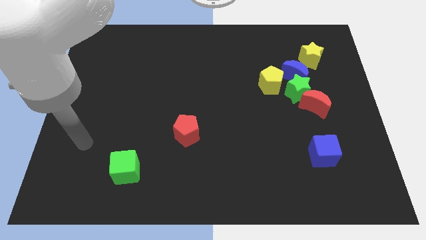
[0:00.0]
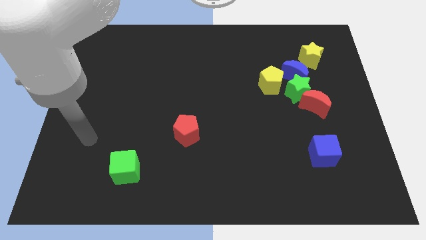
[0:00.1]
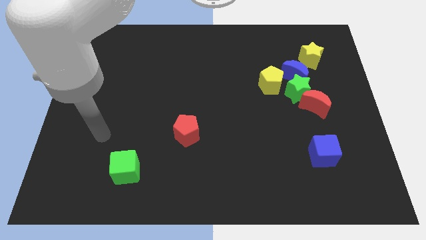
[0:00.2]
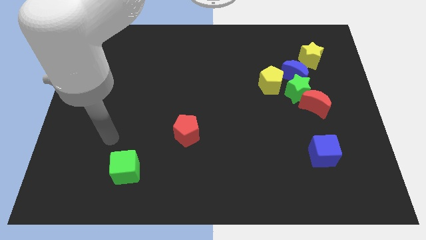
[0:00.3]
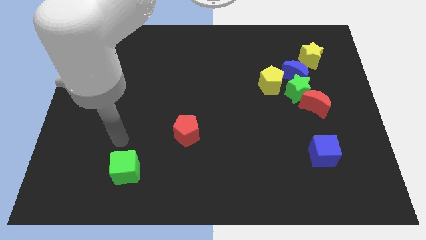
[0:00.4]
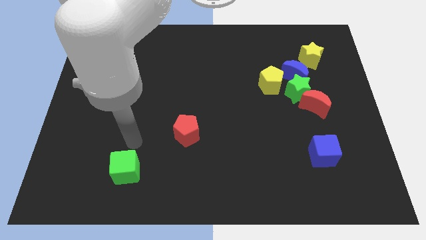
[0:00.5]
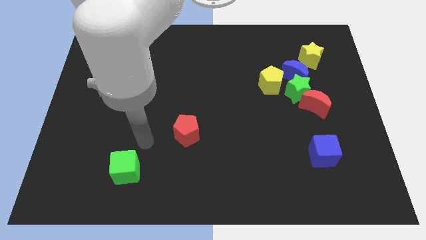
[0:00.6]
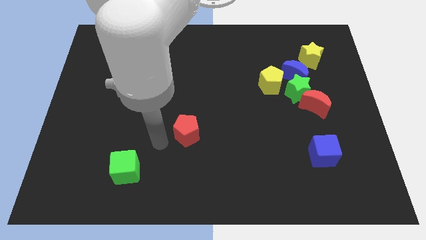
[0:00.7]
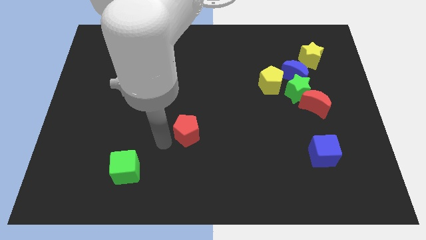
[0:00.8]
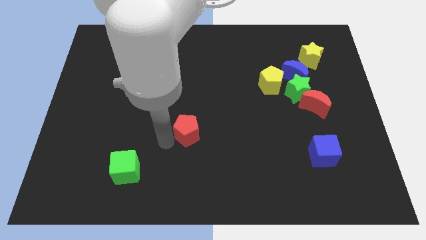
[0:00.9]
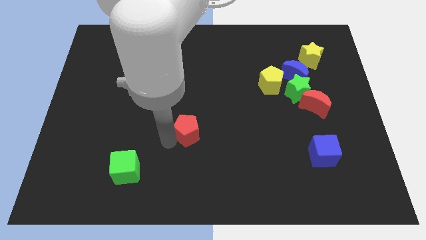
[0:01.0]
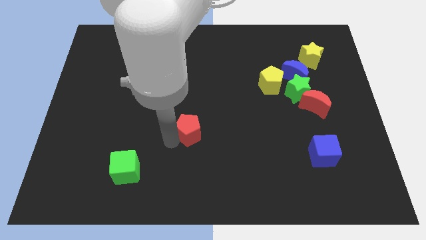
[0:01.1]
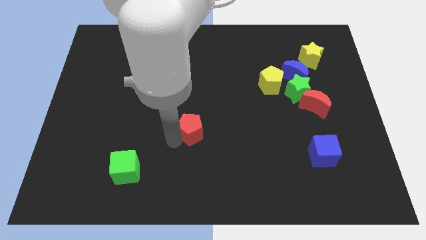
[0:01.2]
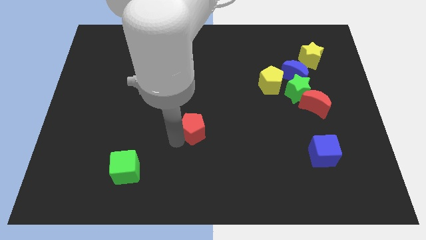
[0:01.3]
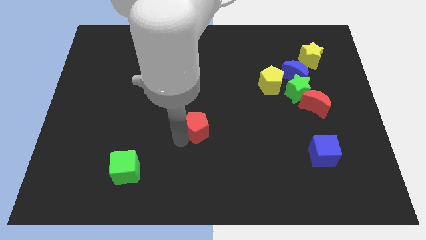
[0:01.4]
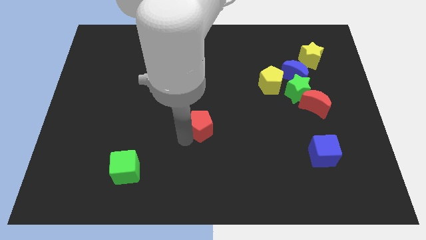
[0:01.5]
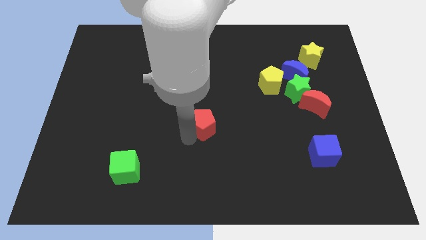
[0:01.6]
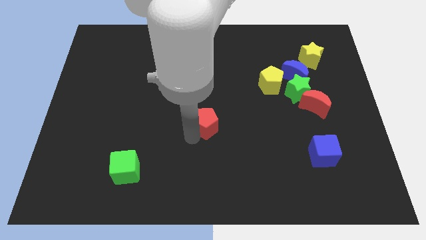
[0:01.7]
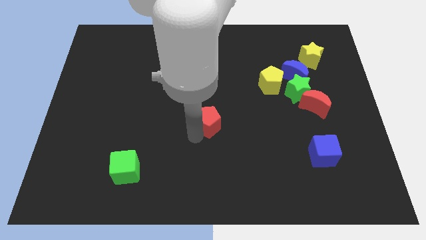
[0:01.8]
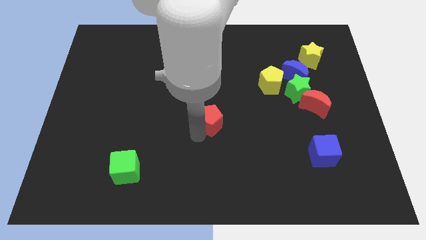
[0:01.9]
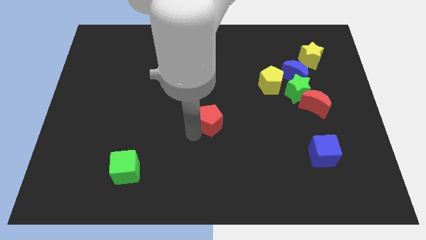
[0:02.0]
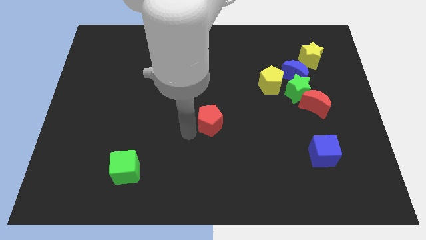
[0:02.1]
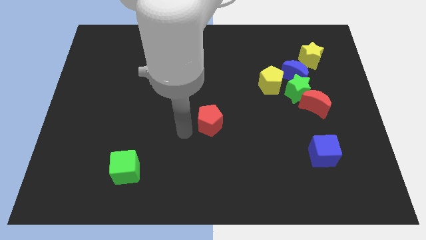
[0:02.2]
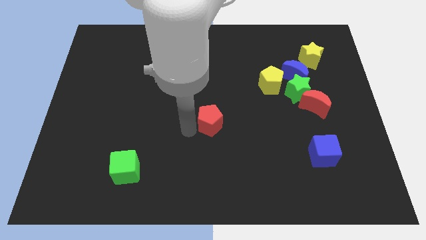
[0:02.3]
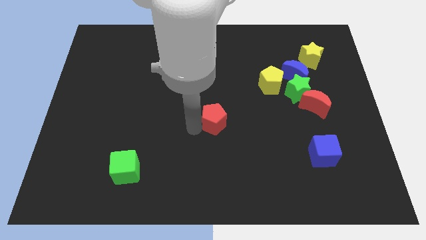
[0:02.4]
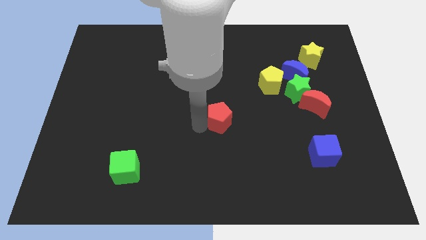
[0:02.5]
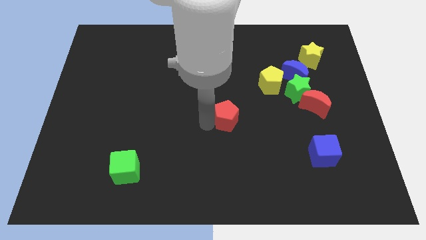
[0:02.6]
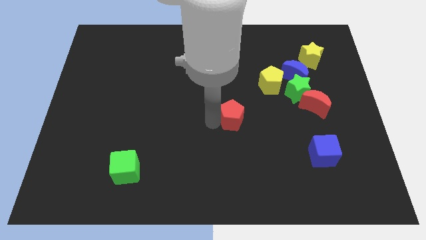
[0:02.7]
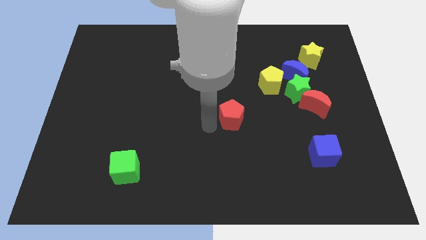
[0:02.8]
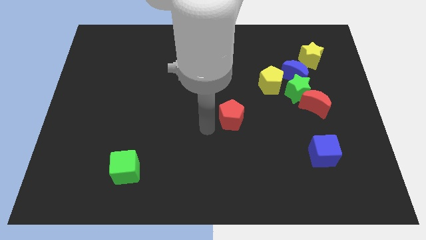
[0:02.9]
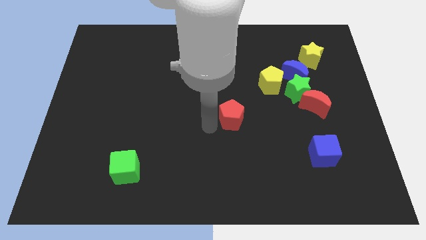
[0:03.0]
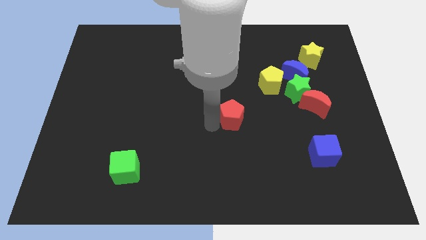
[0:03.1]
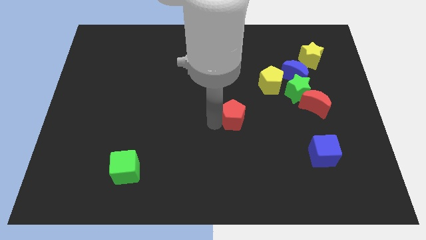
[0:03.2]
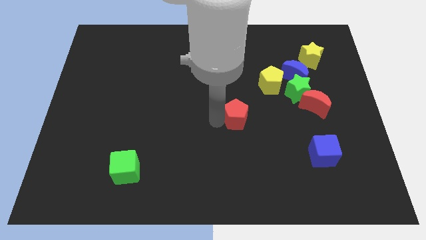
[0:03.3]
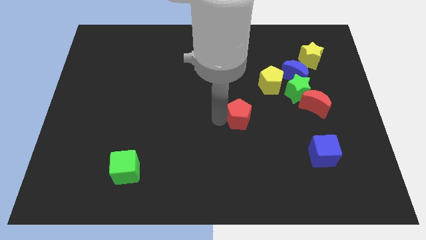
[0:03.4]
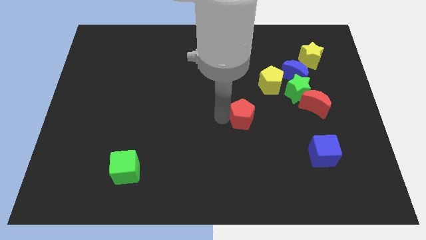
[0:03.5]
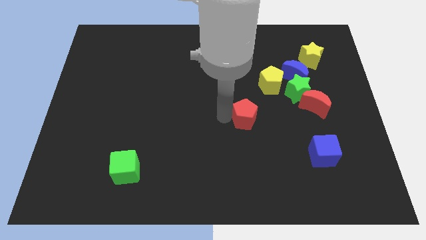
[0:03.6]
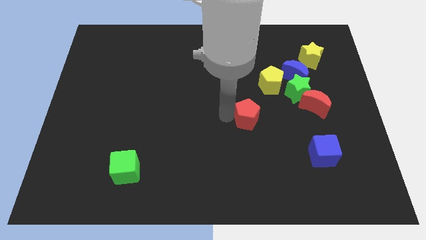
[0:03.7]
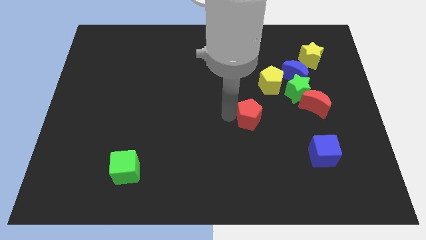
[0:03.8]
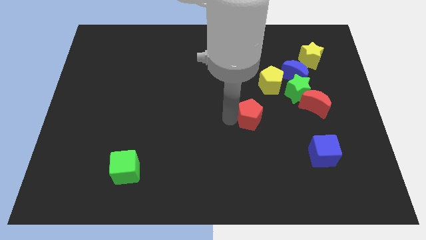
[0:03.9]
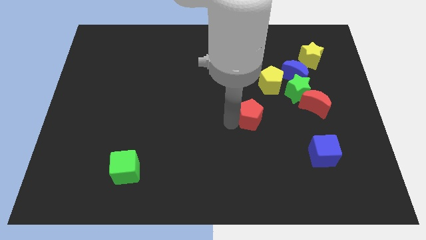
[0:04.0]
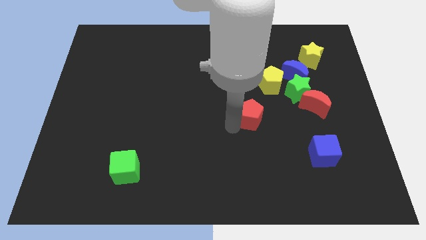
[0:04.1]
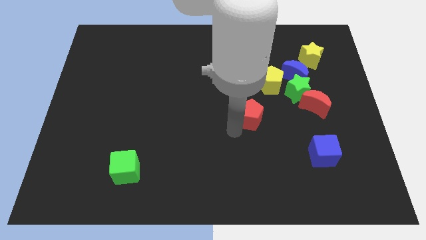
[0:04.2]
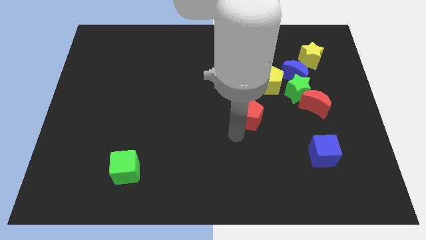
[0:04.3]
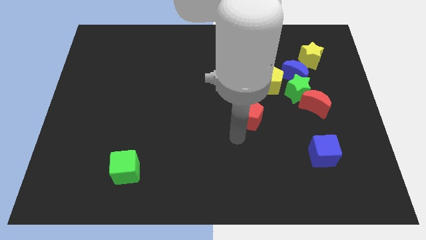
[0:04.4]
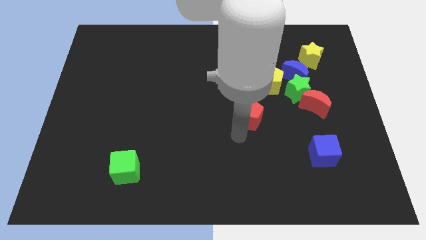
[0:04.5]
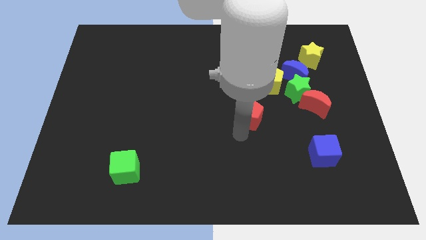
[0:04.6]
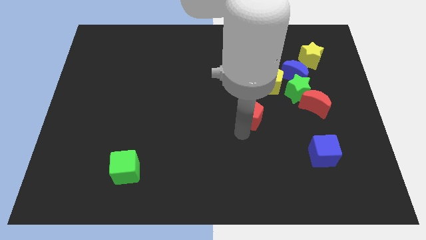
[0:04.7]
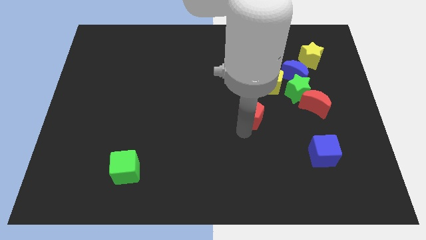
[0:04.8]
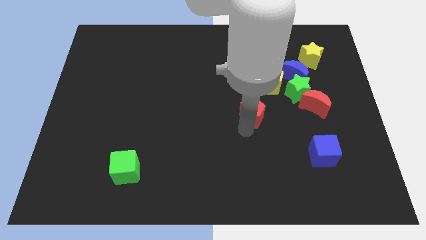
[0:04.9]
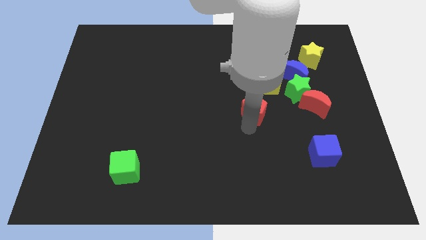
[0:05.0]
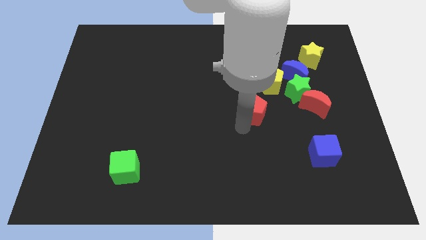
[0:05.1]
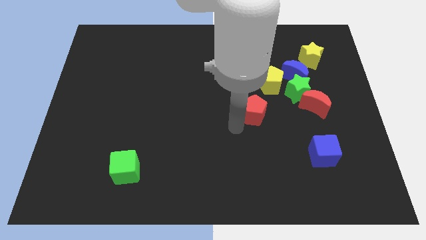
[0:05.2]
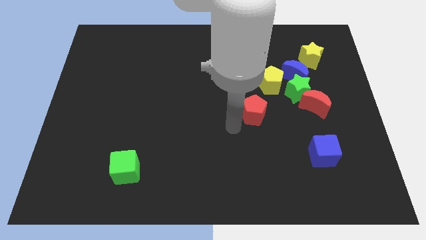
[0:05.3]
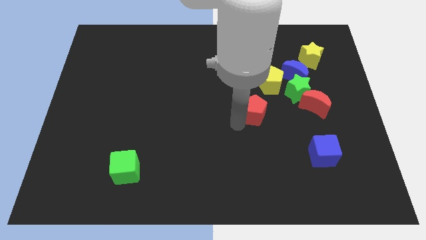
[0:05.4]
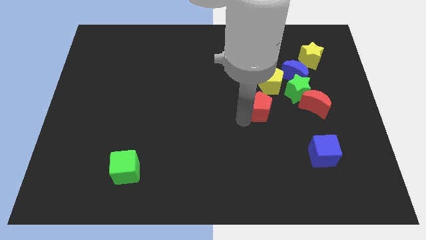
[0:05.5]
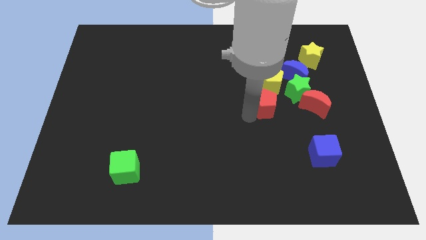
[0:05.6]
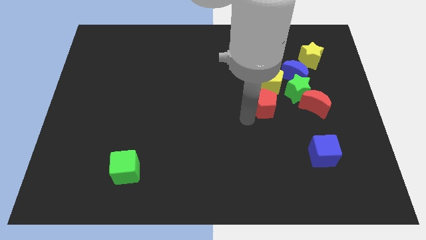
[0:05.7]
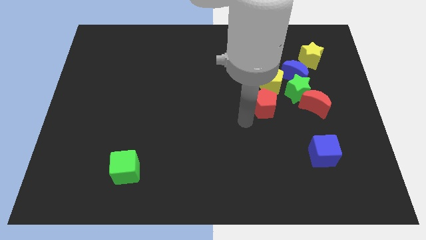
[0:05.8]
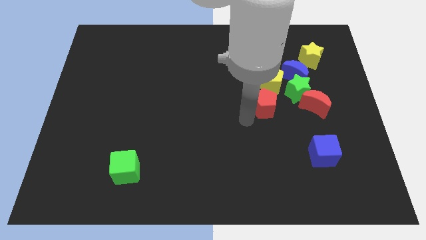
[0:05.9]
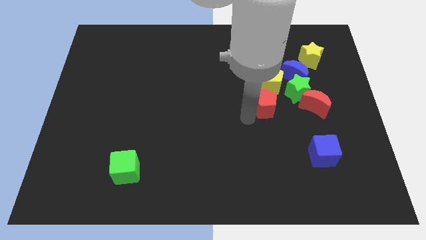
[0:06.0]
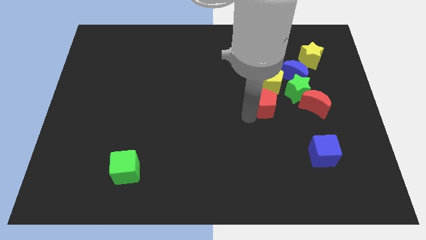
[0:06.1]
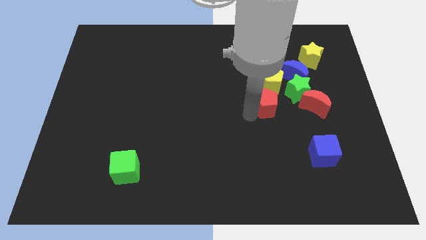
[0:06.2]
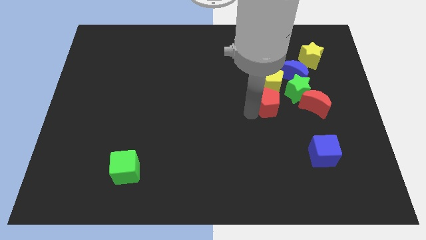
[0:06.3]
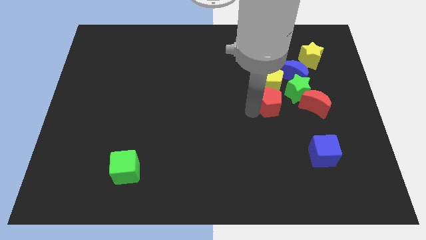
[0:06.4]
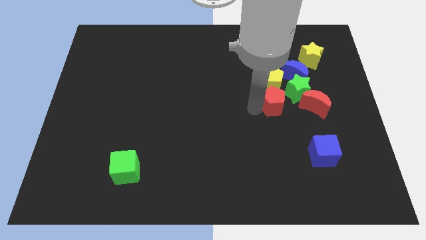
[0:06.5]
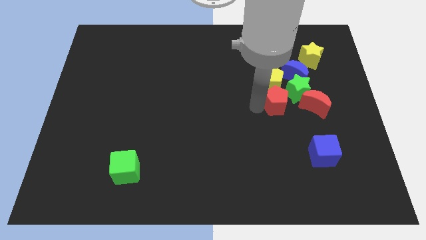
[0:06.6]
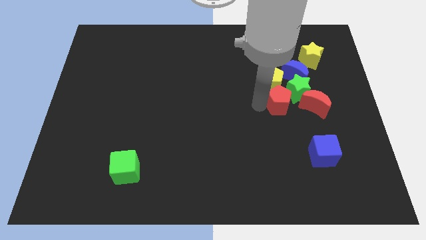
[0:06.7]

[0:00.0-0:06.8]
move the red pentagon next to the green star

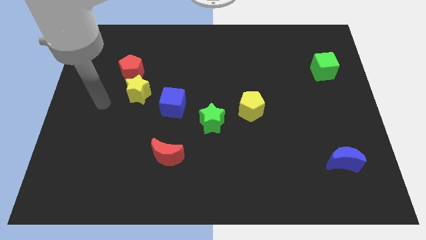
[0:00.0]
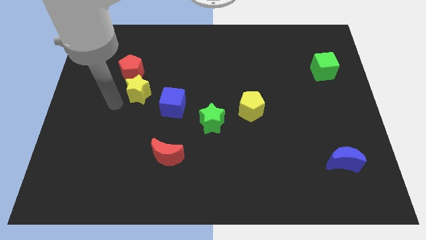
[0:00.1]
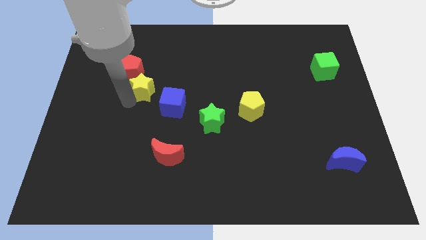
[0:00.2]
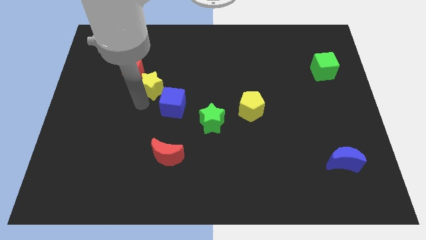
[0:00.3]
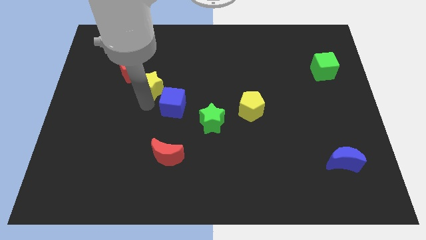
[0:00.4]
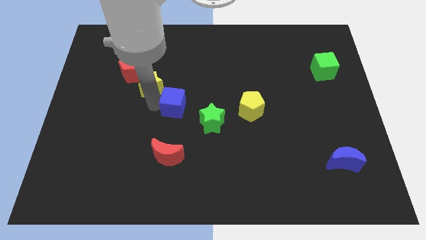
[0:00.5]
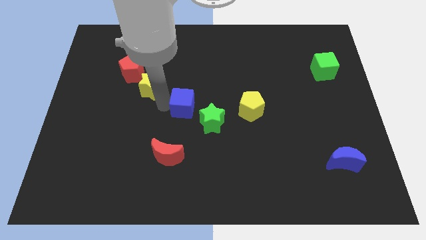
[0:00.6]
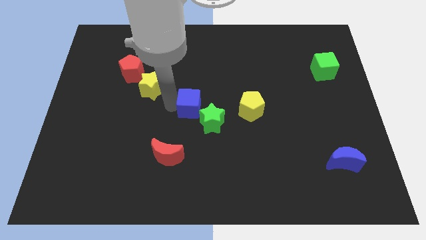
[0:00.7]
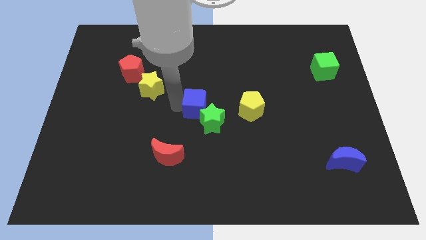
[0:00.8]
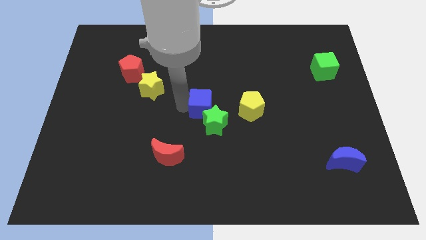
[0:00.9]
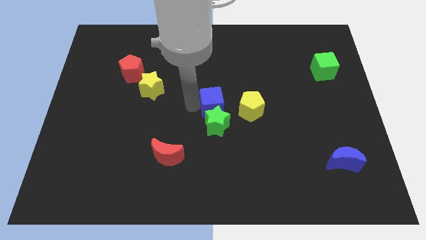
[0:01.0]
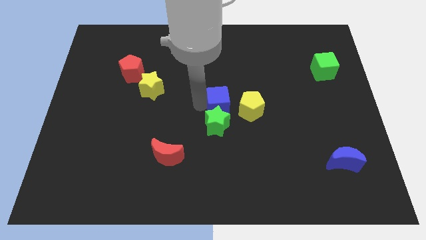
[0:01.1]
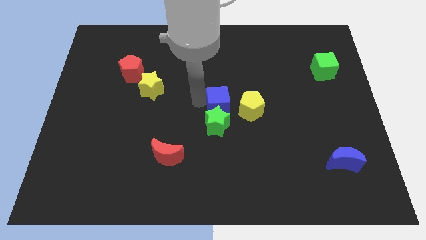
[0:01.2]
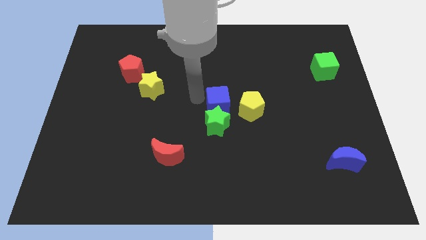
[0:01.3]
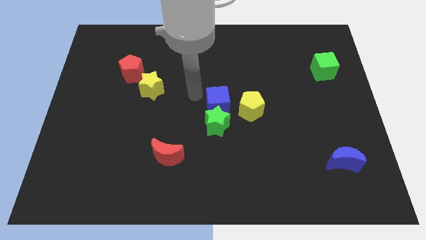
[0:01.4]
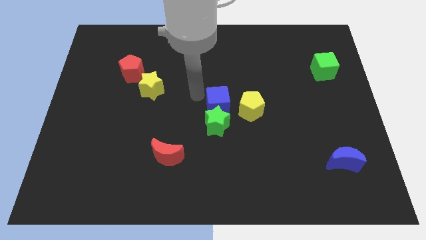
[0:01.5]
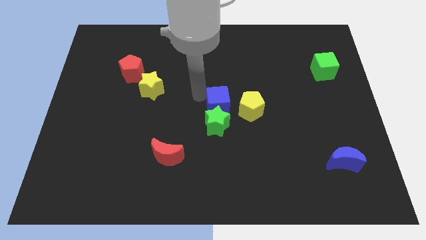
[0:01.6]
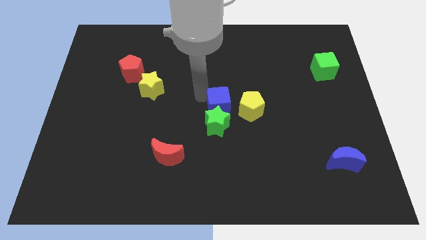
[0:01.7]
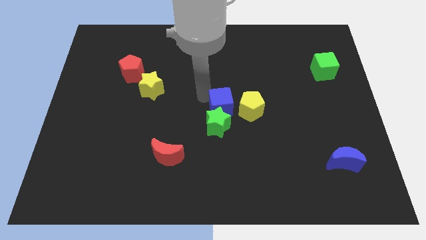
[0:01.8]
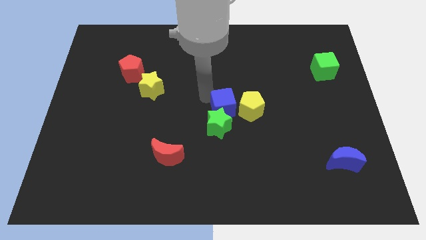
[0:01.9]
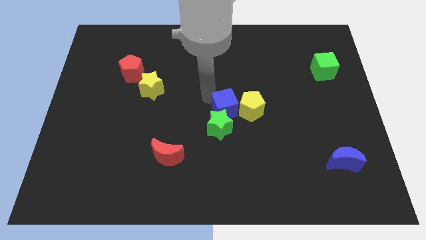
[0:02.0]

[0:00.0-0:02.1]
push the blue cube towards the yellow pentagon
